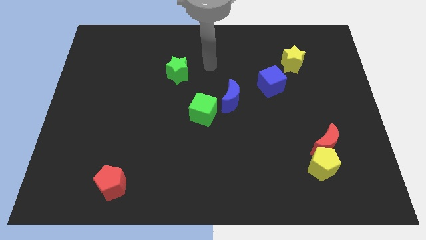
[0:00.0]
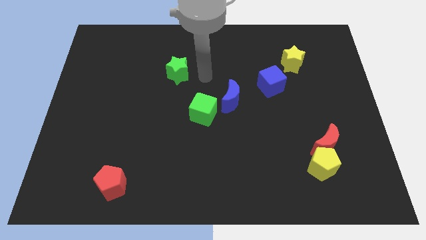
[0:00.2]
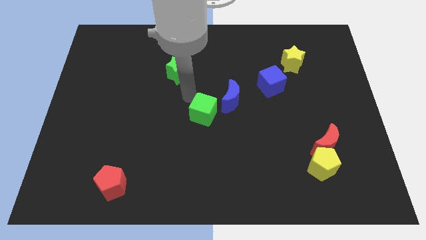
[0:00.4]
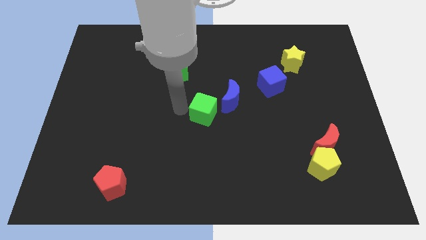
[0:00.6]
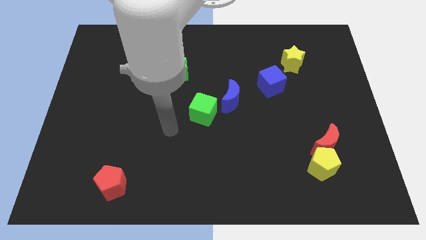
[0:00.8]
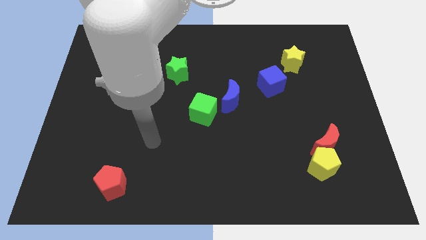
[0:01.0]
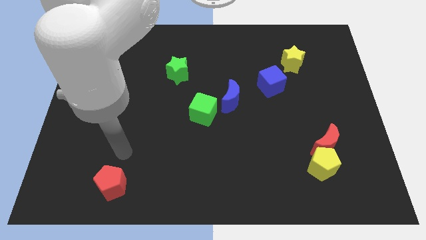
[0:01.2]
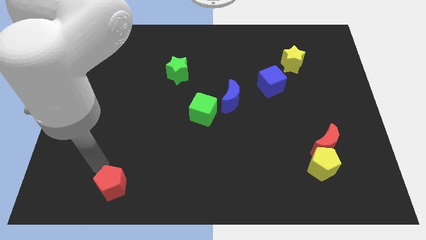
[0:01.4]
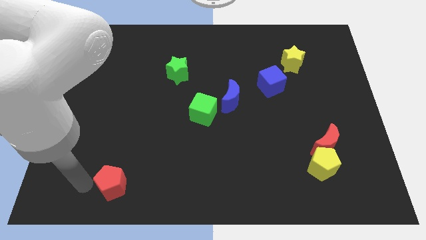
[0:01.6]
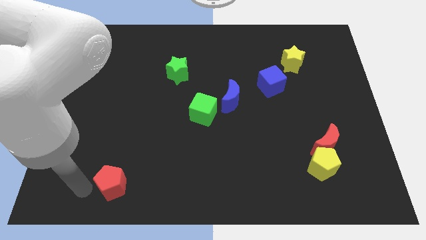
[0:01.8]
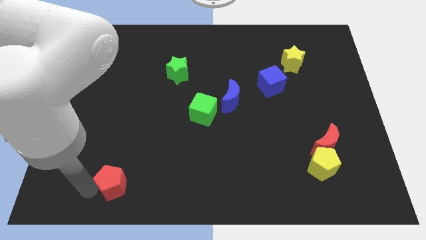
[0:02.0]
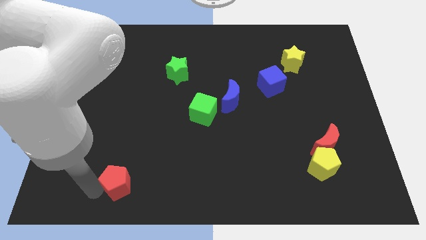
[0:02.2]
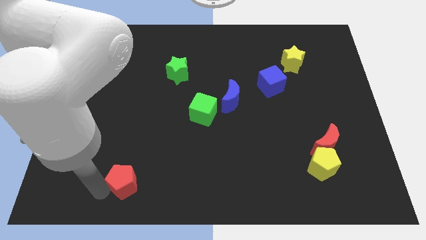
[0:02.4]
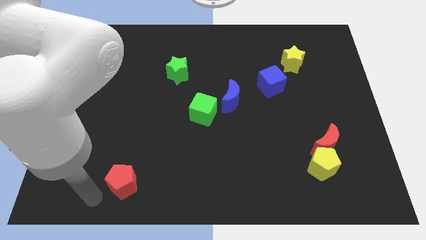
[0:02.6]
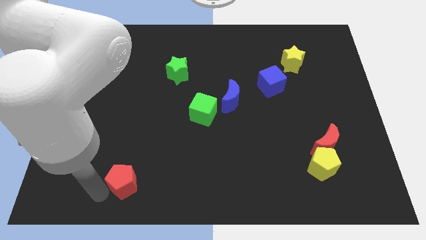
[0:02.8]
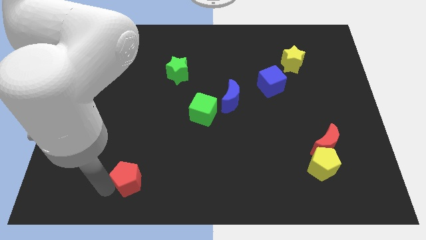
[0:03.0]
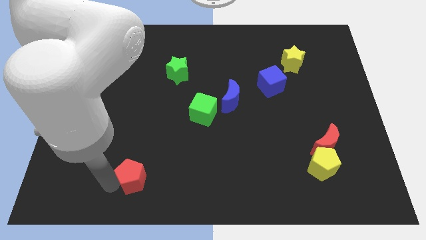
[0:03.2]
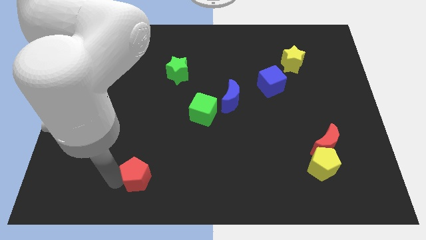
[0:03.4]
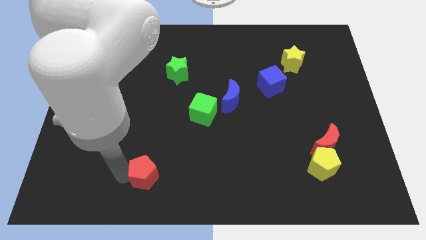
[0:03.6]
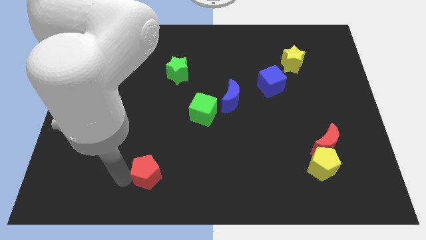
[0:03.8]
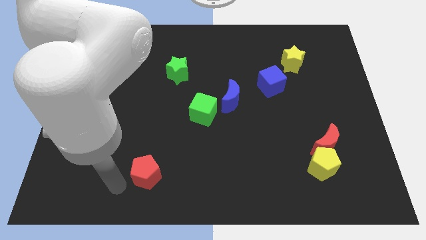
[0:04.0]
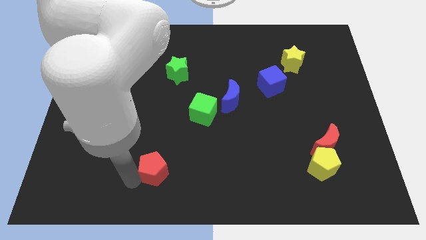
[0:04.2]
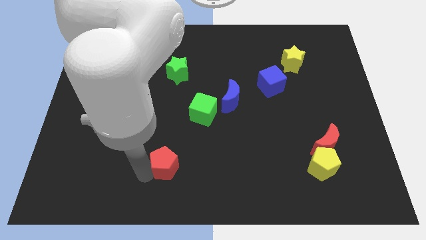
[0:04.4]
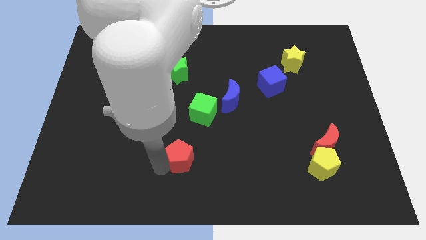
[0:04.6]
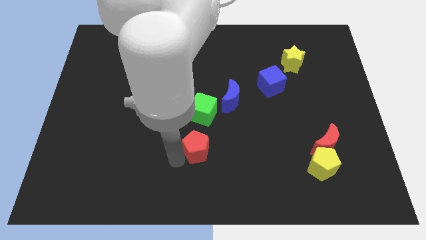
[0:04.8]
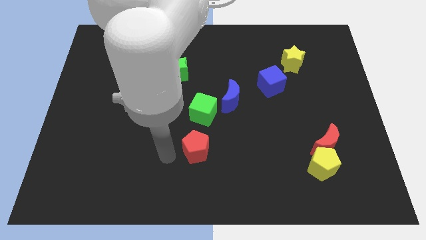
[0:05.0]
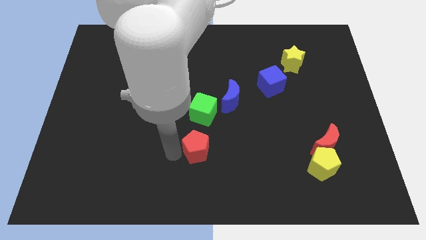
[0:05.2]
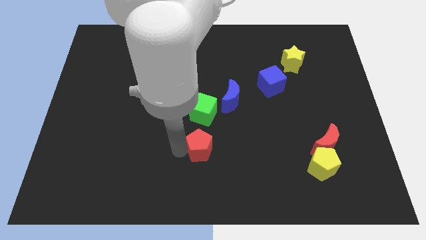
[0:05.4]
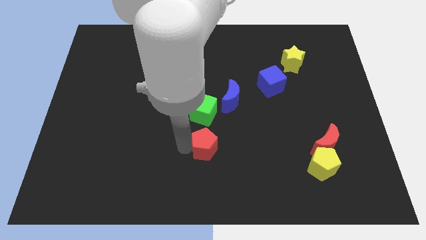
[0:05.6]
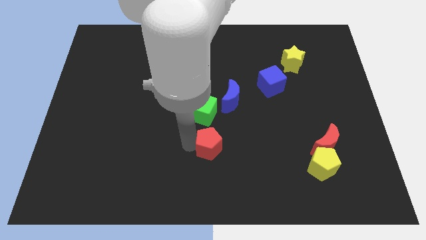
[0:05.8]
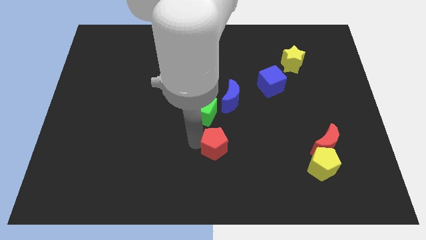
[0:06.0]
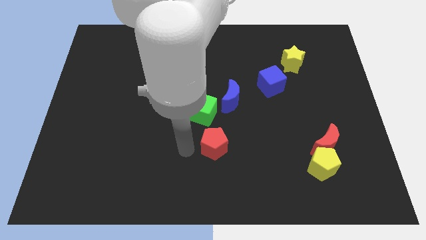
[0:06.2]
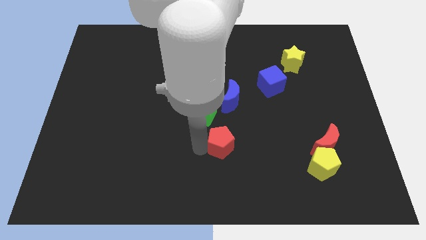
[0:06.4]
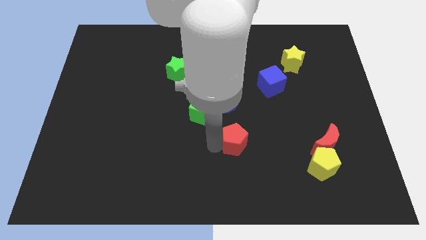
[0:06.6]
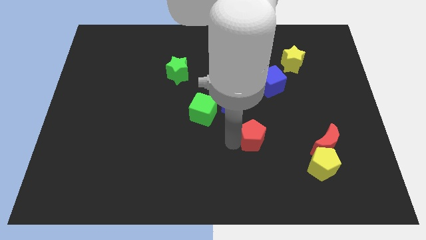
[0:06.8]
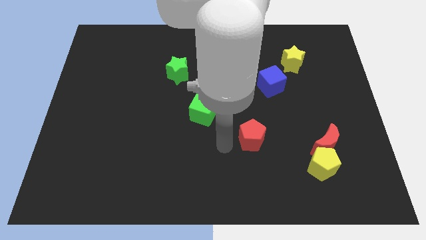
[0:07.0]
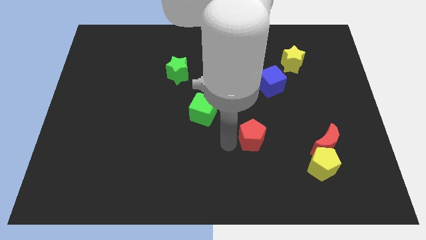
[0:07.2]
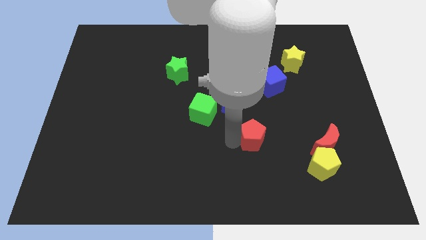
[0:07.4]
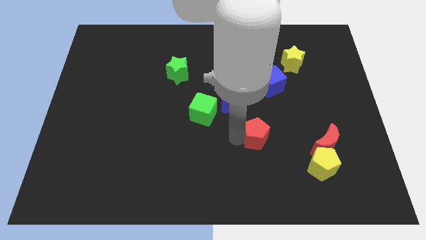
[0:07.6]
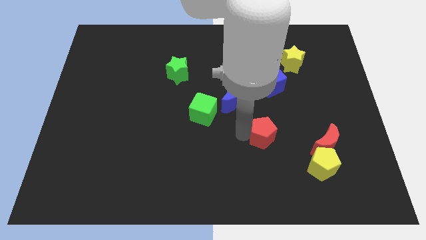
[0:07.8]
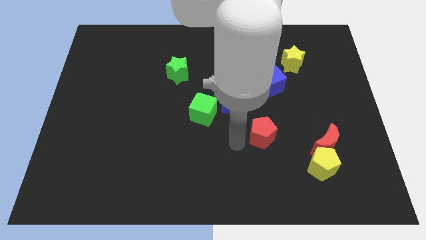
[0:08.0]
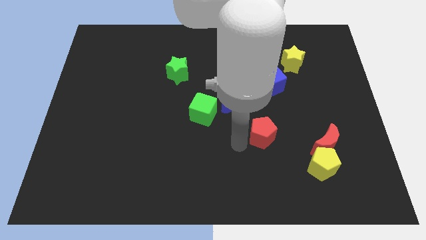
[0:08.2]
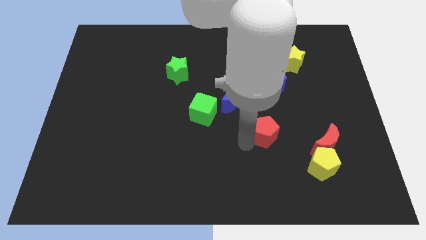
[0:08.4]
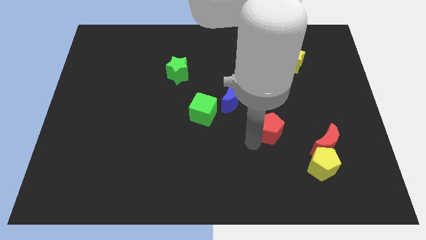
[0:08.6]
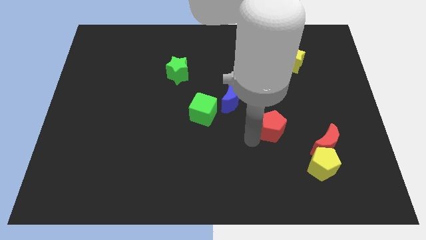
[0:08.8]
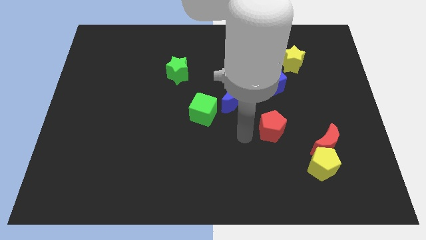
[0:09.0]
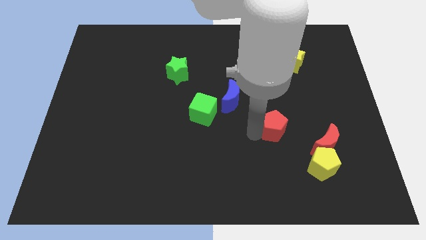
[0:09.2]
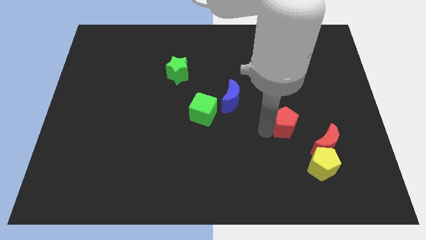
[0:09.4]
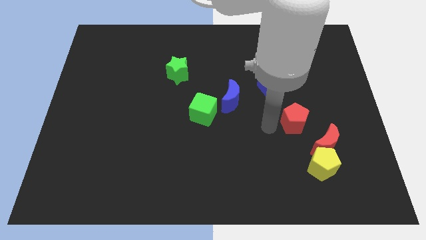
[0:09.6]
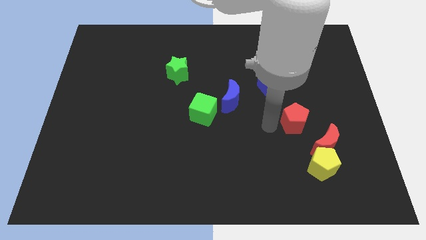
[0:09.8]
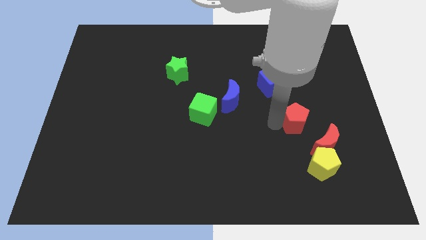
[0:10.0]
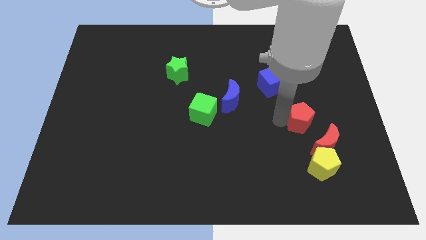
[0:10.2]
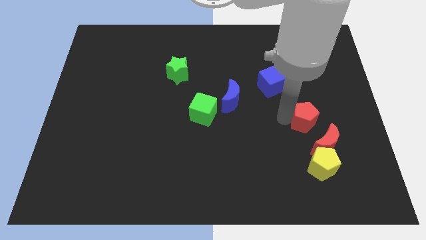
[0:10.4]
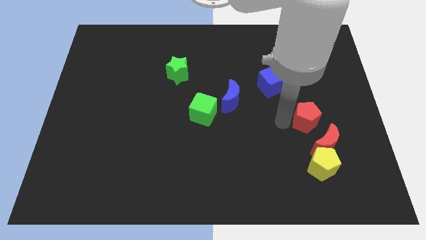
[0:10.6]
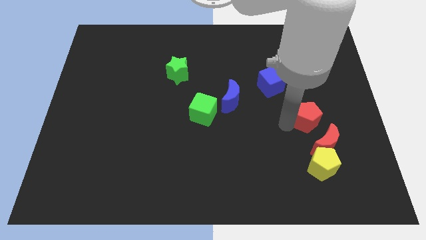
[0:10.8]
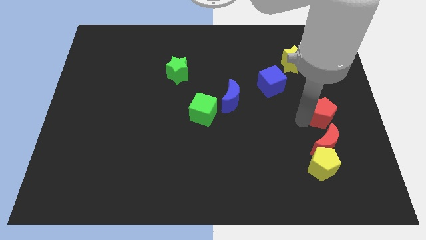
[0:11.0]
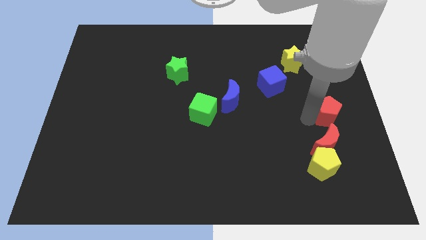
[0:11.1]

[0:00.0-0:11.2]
put the red pentagon to the right side of the board

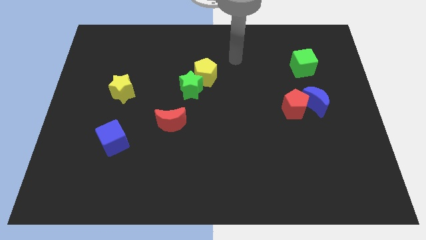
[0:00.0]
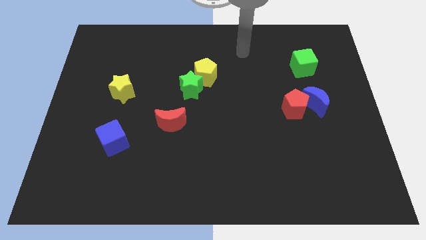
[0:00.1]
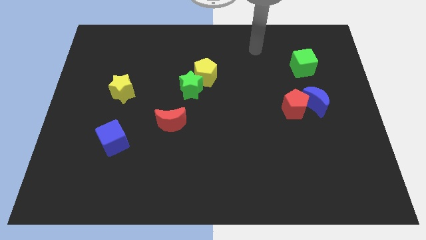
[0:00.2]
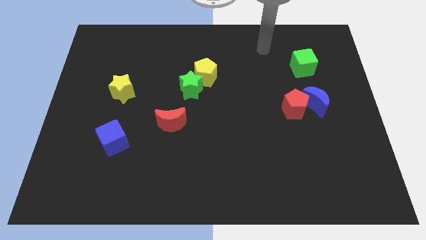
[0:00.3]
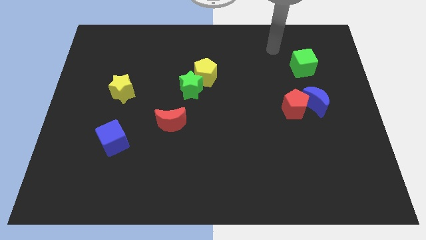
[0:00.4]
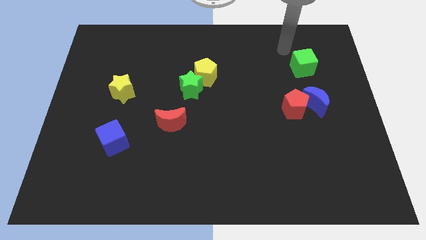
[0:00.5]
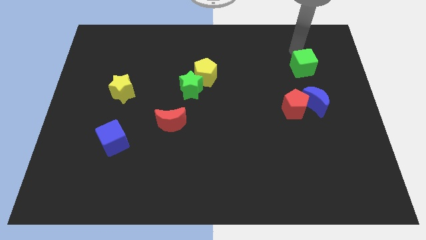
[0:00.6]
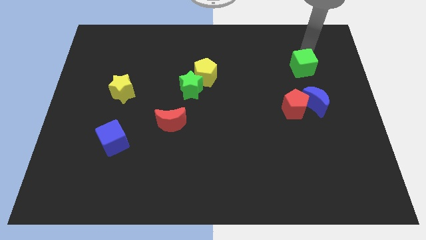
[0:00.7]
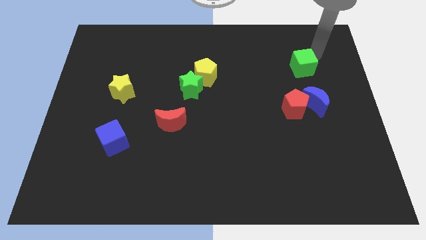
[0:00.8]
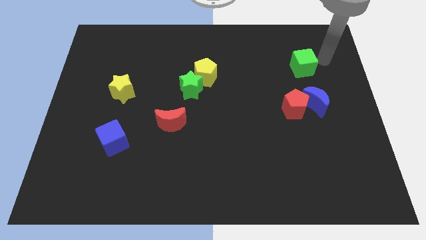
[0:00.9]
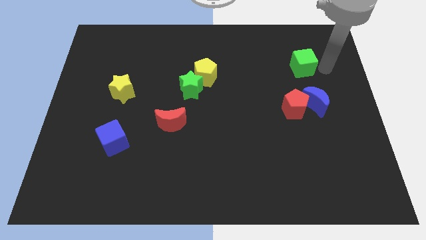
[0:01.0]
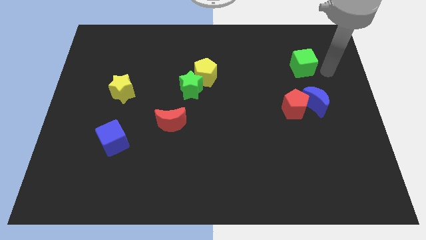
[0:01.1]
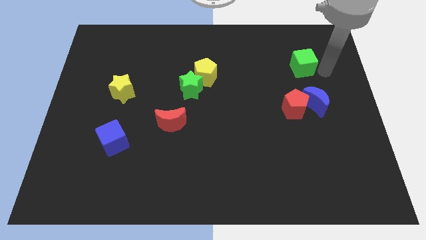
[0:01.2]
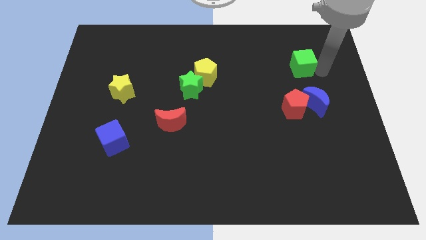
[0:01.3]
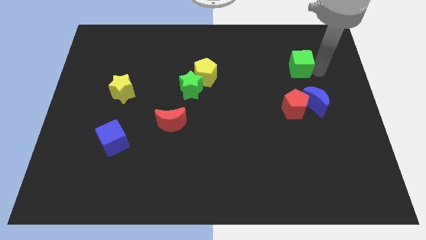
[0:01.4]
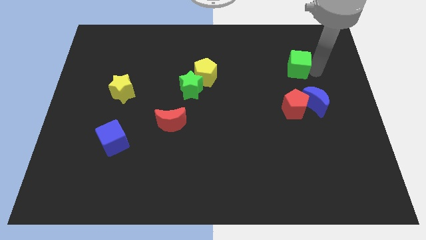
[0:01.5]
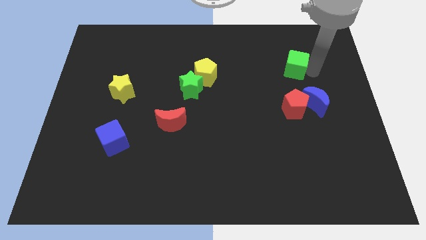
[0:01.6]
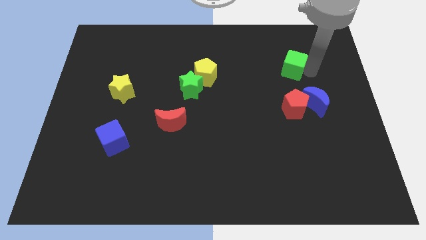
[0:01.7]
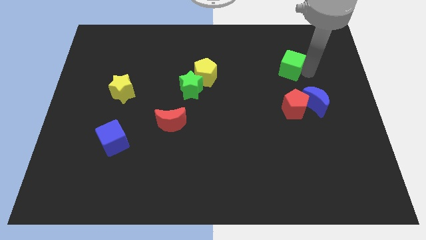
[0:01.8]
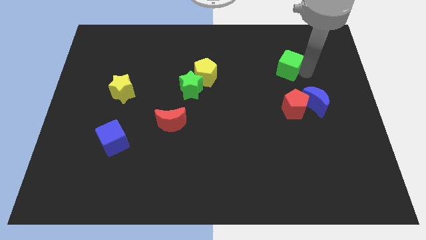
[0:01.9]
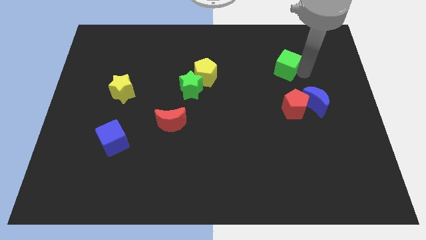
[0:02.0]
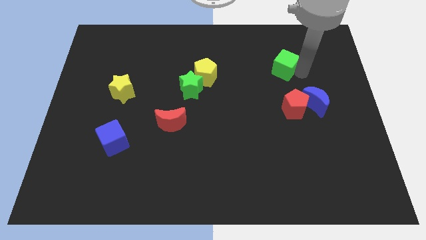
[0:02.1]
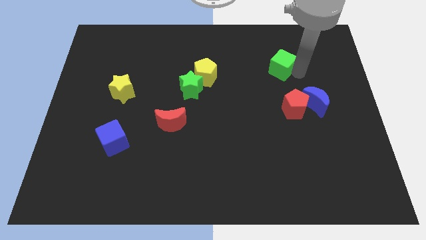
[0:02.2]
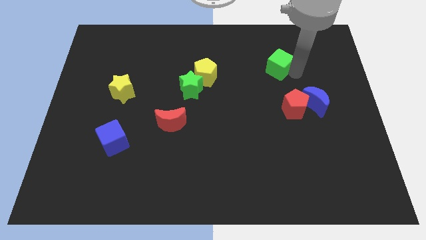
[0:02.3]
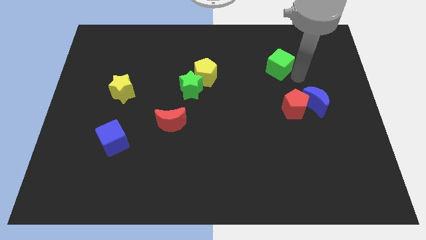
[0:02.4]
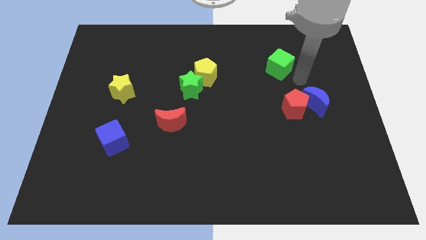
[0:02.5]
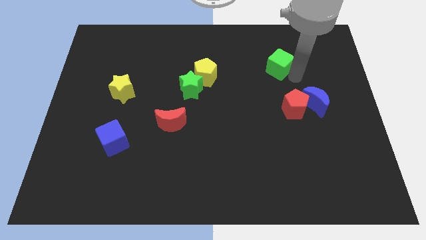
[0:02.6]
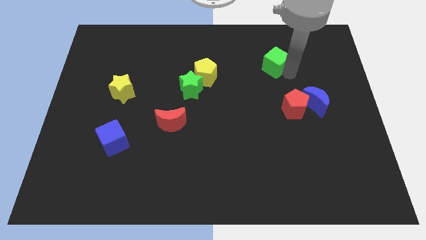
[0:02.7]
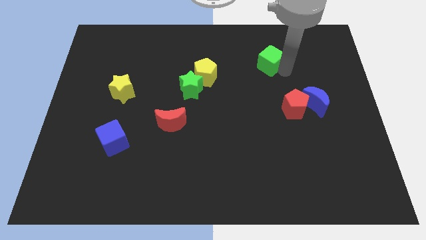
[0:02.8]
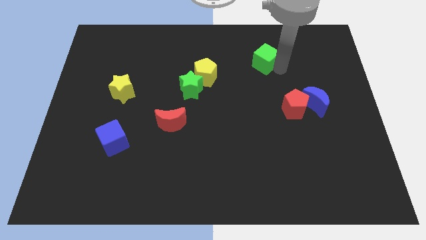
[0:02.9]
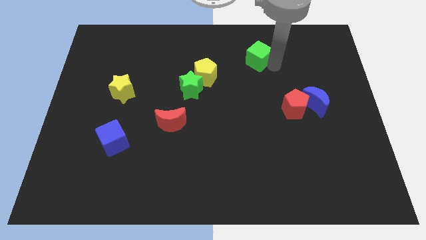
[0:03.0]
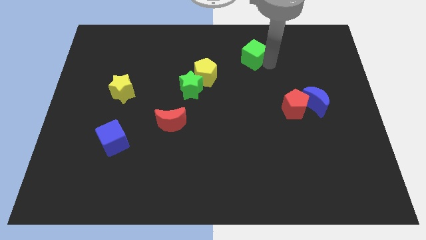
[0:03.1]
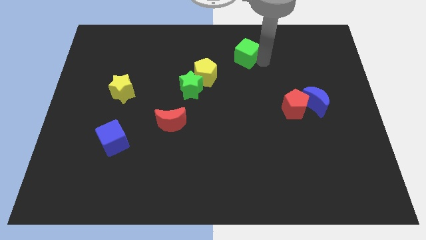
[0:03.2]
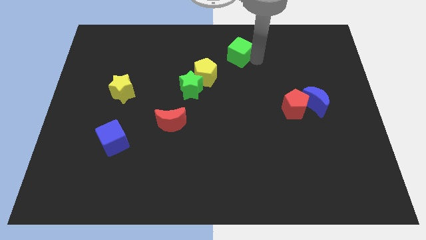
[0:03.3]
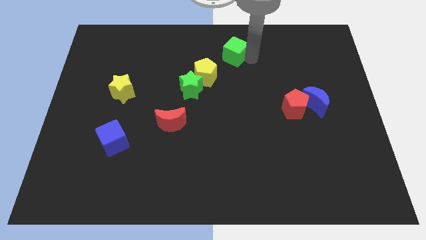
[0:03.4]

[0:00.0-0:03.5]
put the green cube to the top
